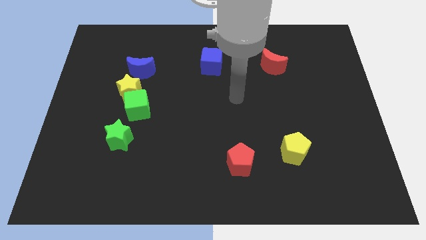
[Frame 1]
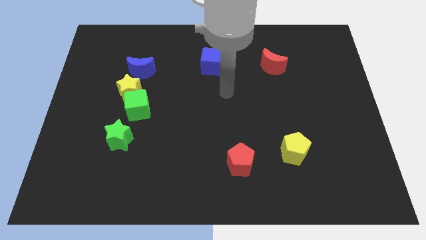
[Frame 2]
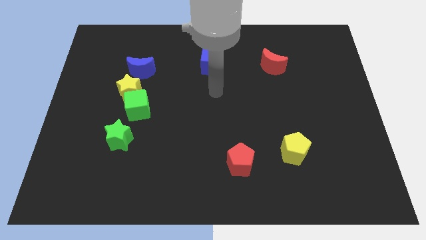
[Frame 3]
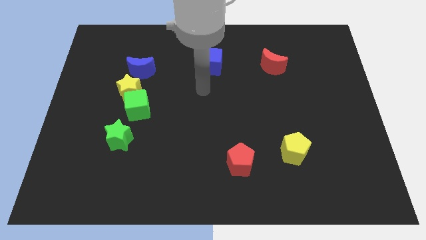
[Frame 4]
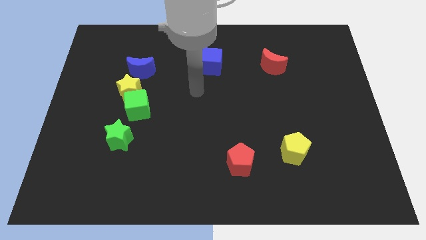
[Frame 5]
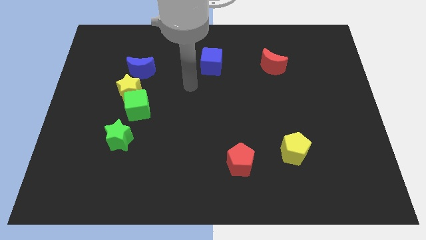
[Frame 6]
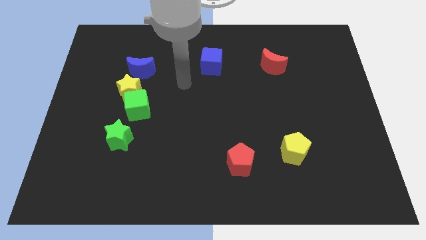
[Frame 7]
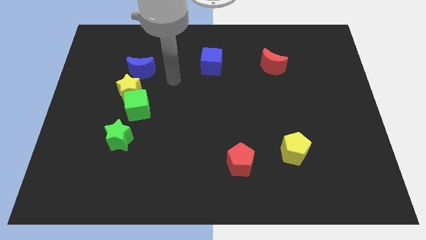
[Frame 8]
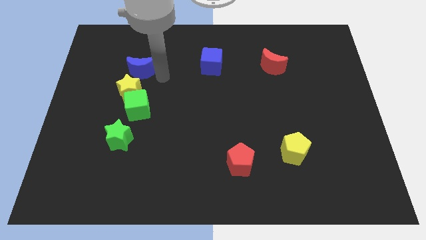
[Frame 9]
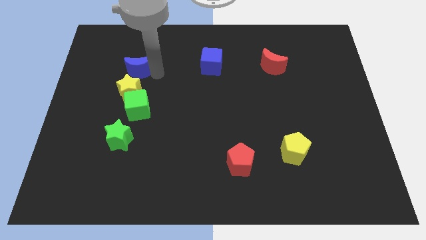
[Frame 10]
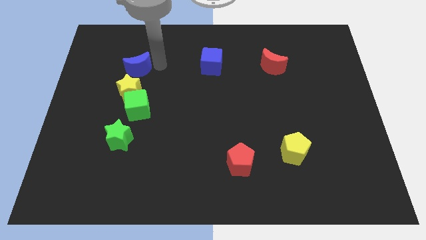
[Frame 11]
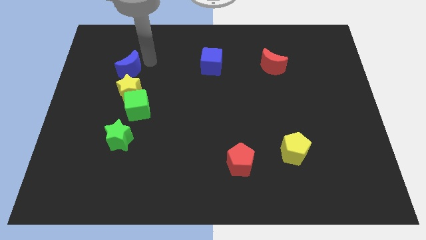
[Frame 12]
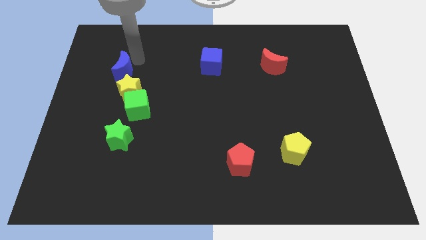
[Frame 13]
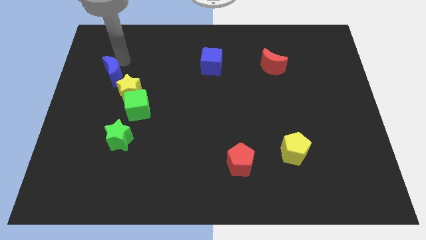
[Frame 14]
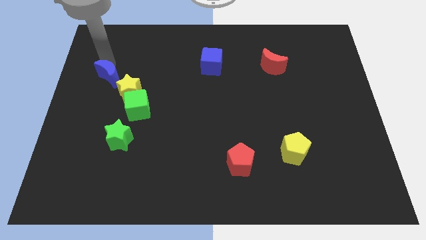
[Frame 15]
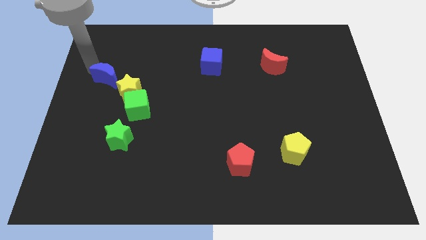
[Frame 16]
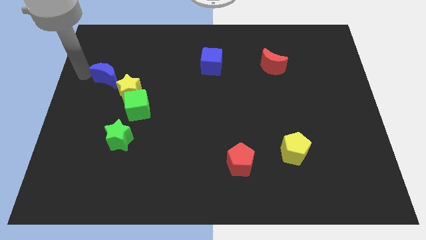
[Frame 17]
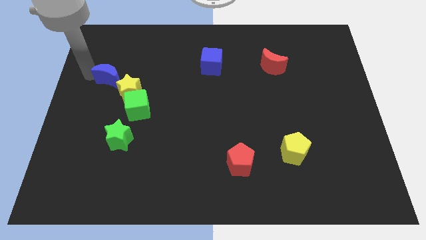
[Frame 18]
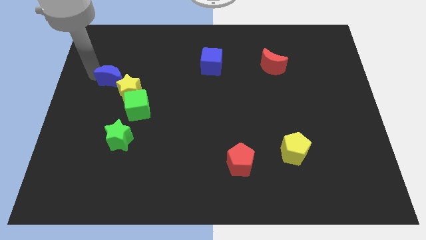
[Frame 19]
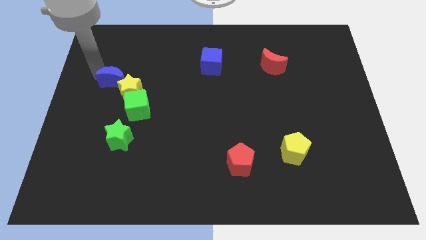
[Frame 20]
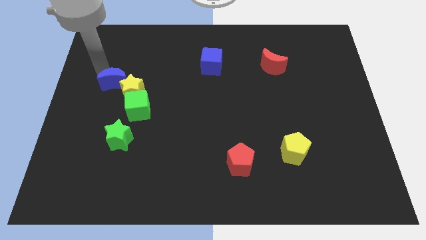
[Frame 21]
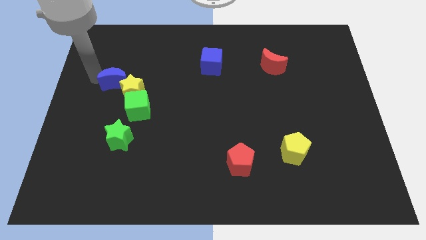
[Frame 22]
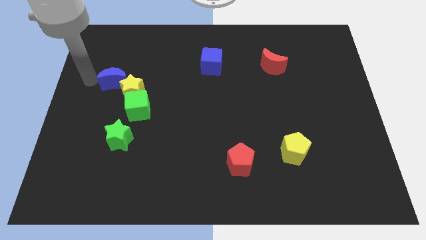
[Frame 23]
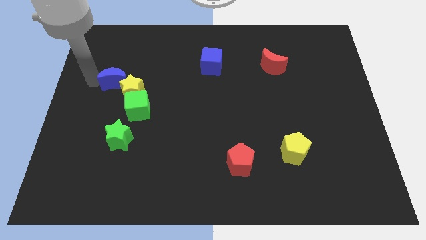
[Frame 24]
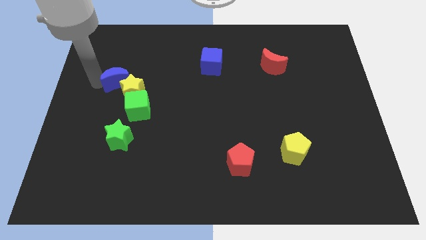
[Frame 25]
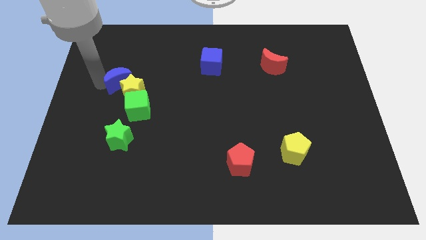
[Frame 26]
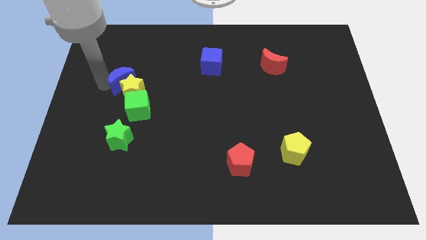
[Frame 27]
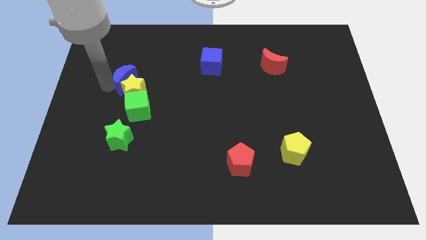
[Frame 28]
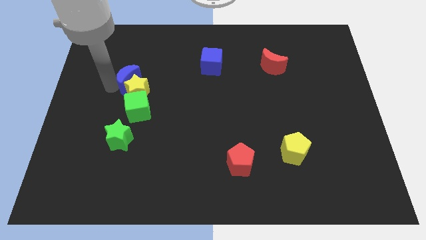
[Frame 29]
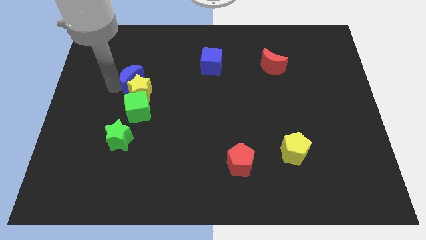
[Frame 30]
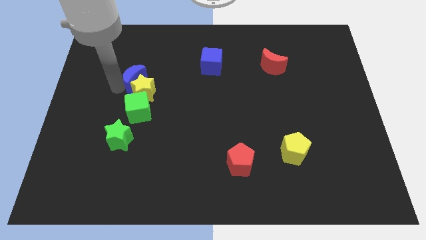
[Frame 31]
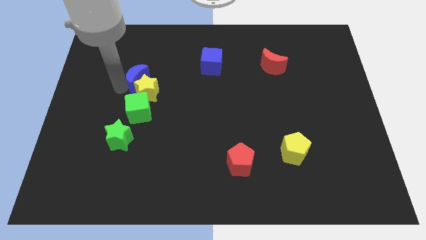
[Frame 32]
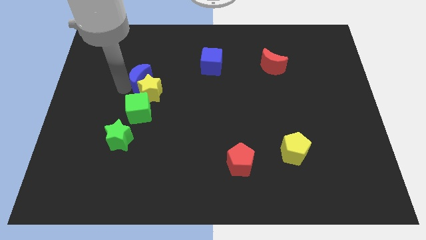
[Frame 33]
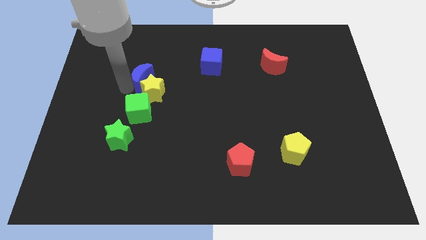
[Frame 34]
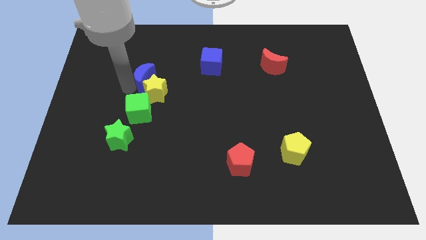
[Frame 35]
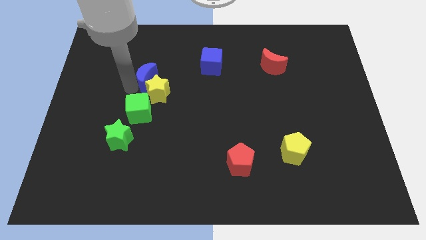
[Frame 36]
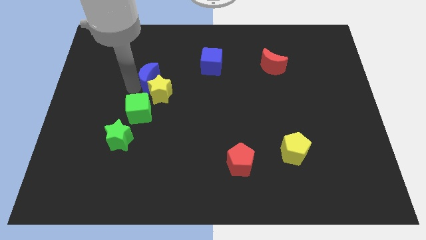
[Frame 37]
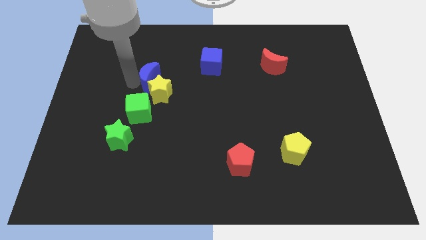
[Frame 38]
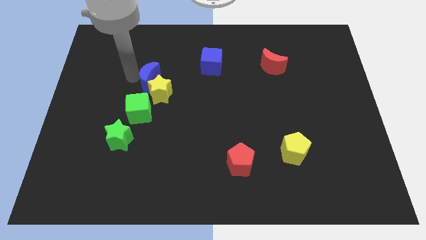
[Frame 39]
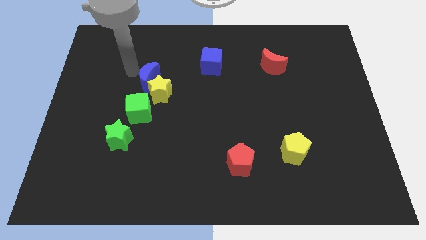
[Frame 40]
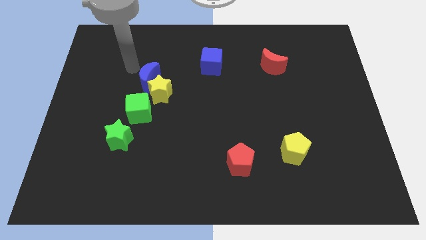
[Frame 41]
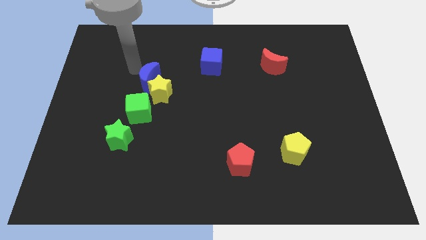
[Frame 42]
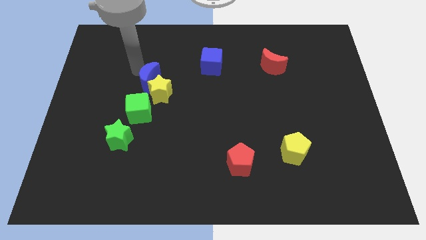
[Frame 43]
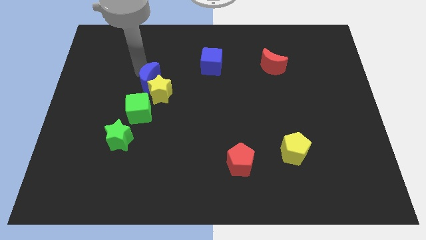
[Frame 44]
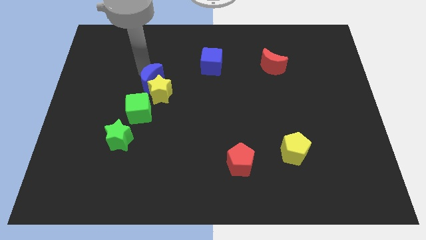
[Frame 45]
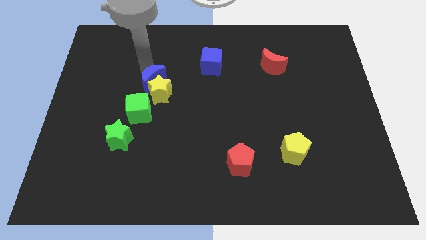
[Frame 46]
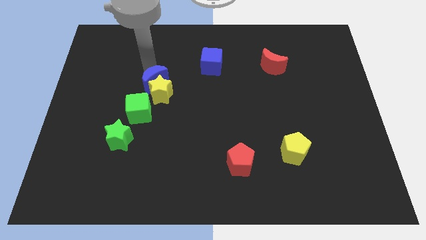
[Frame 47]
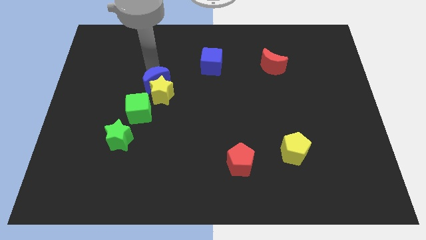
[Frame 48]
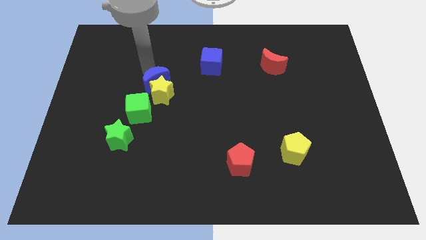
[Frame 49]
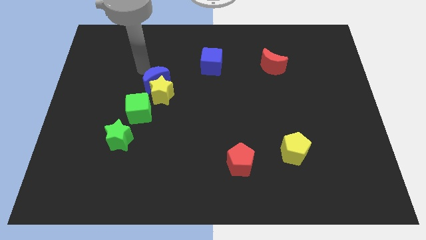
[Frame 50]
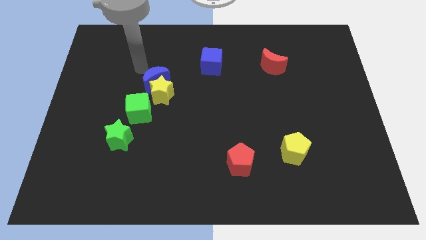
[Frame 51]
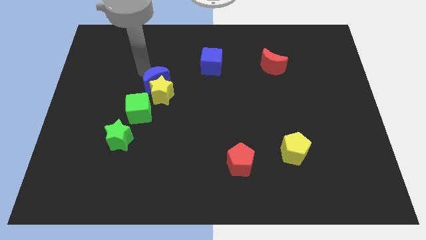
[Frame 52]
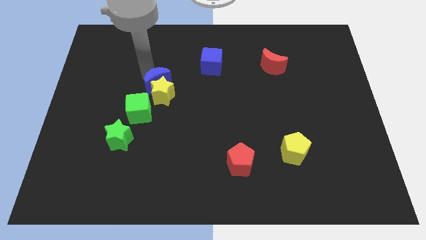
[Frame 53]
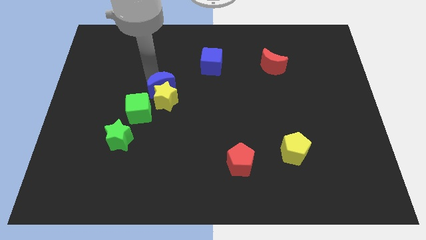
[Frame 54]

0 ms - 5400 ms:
push the blue moon down and to the right diagonally a bit

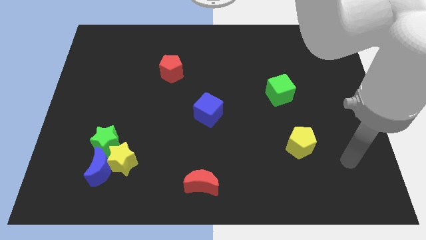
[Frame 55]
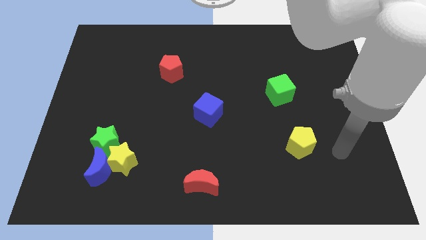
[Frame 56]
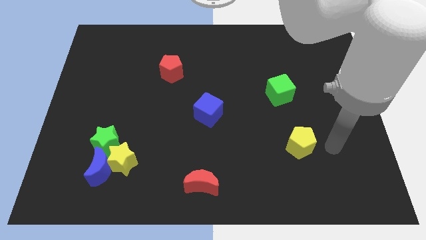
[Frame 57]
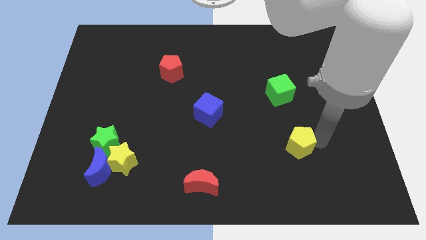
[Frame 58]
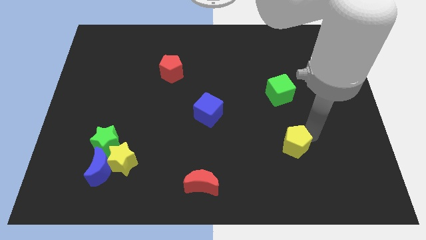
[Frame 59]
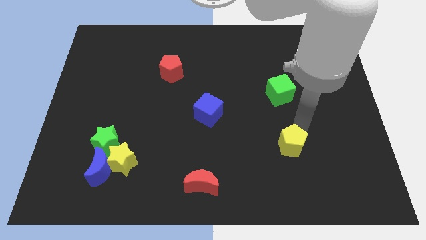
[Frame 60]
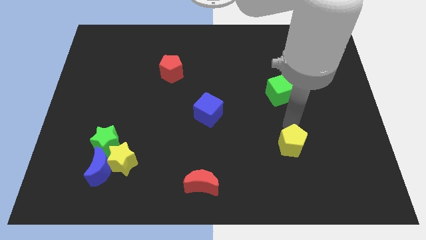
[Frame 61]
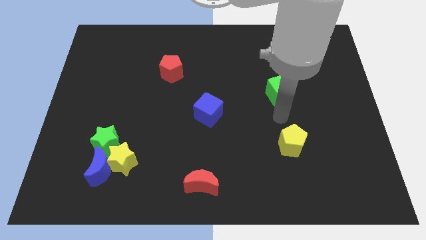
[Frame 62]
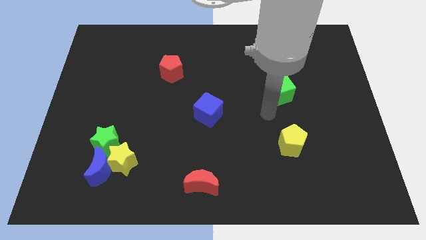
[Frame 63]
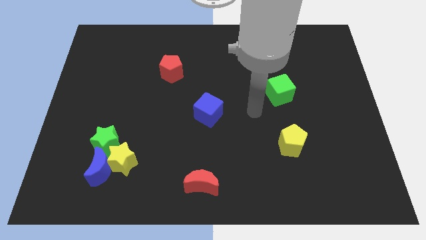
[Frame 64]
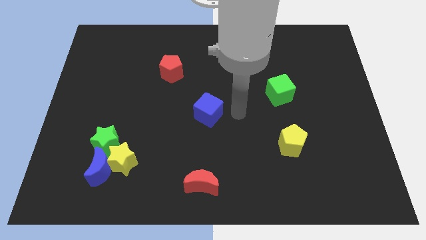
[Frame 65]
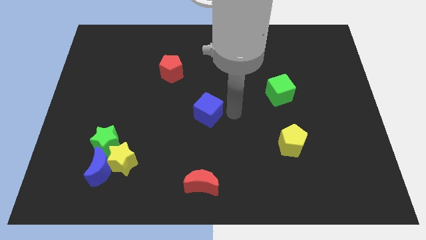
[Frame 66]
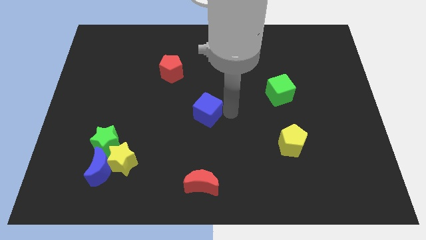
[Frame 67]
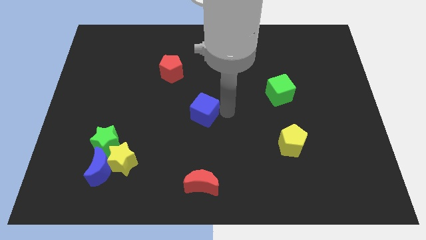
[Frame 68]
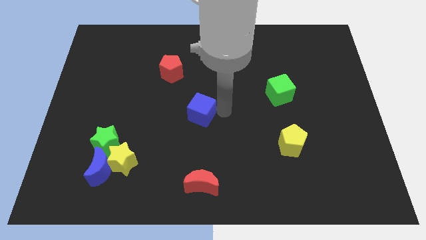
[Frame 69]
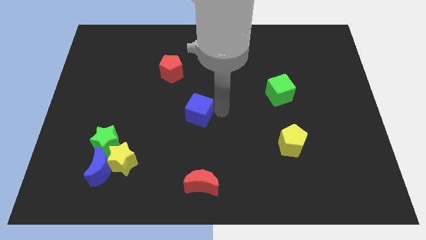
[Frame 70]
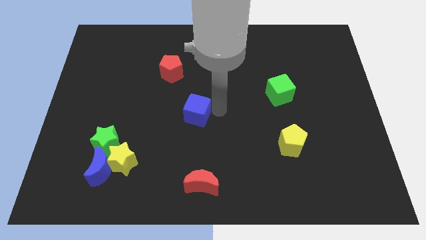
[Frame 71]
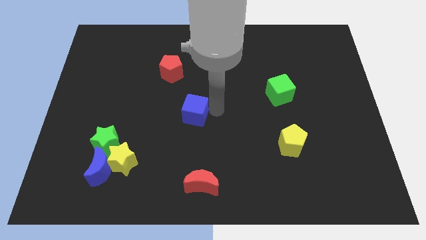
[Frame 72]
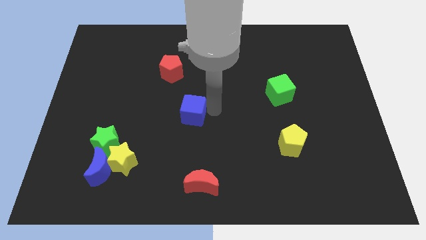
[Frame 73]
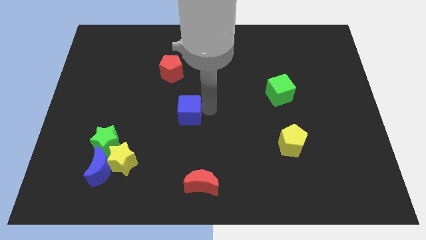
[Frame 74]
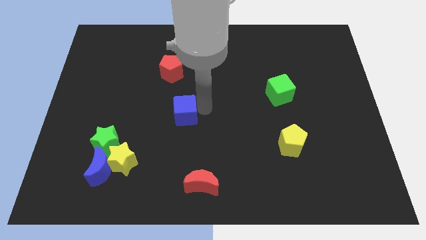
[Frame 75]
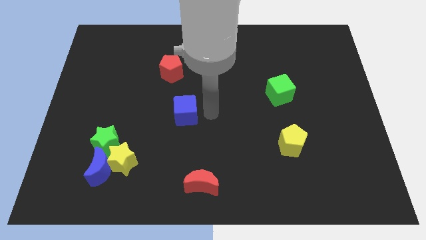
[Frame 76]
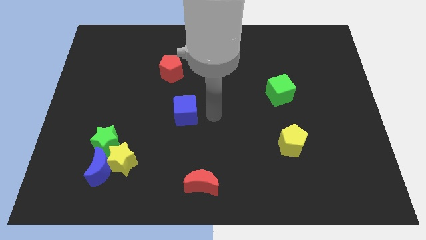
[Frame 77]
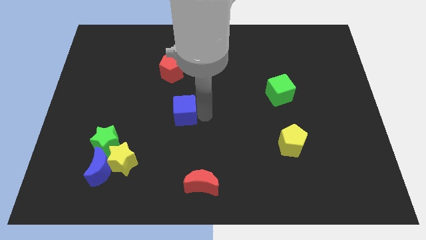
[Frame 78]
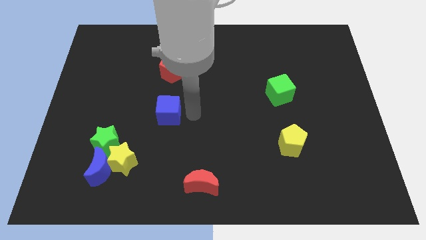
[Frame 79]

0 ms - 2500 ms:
slightly move the blue cube to the left
